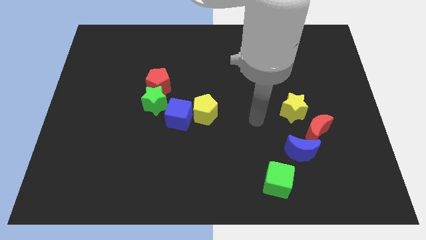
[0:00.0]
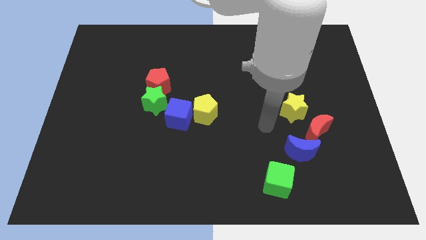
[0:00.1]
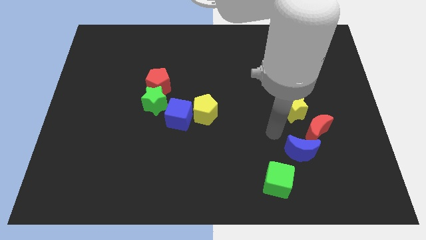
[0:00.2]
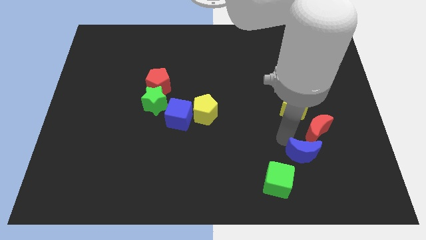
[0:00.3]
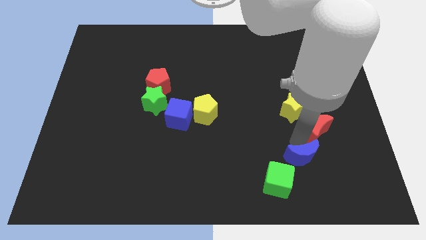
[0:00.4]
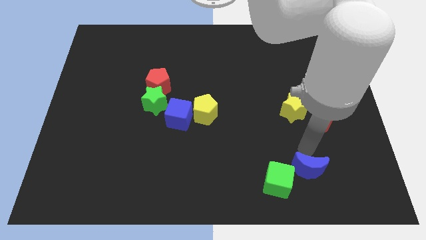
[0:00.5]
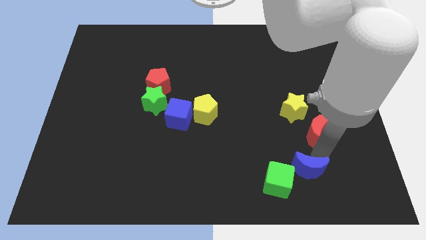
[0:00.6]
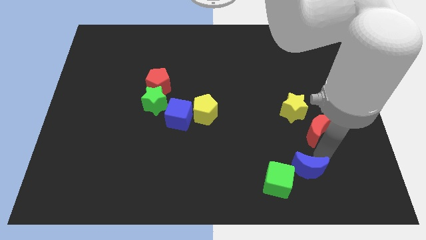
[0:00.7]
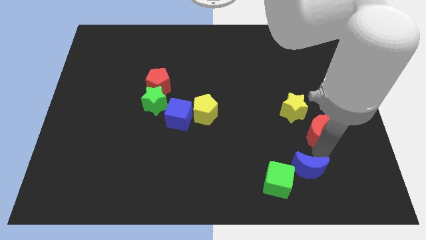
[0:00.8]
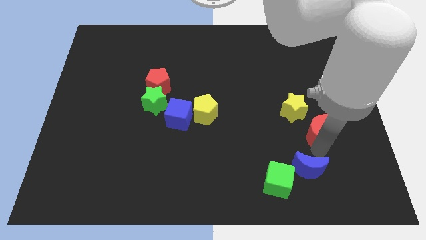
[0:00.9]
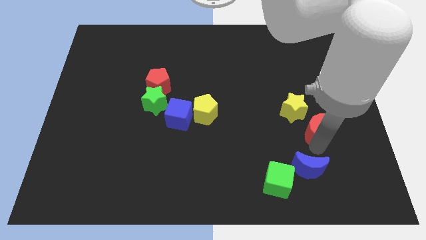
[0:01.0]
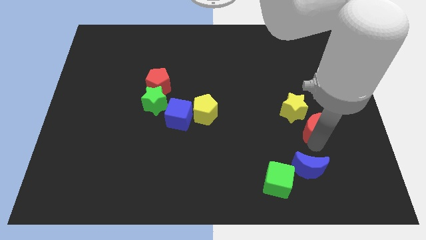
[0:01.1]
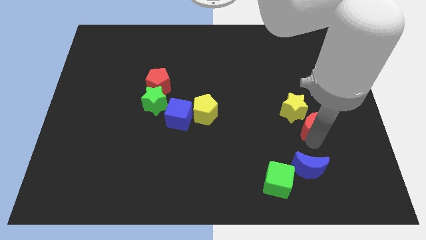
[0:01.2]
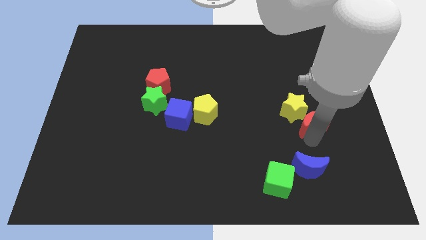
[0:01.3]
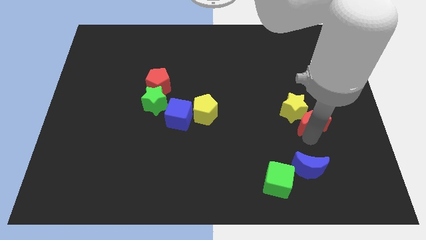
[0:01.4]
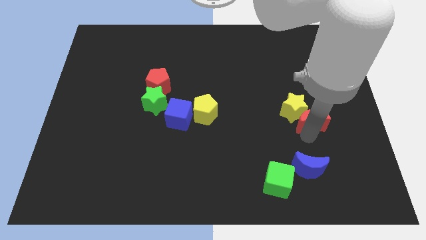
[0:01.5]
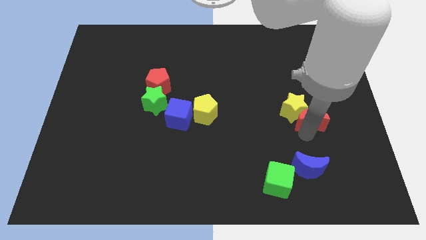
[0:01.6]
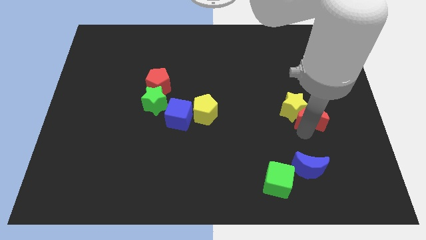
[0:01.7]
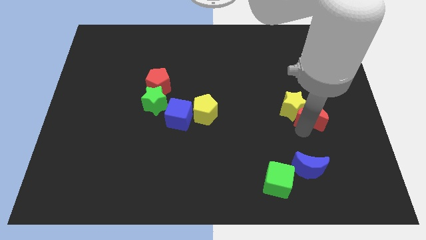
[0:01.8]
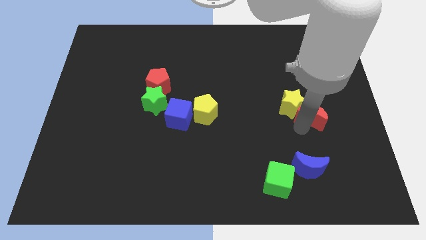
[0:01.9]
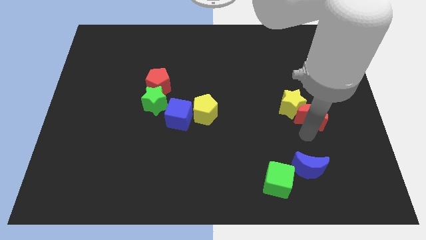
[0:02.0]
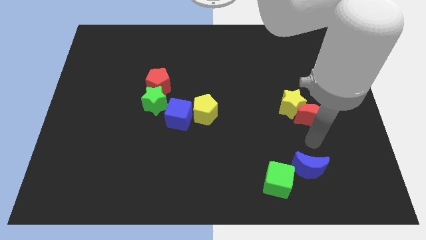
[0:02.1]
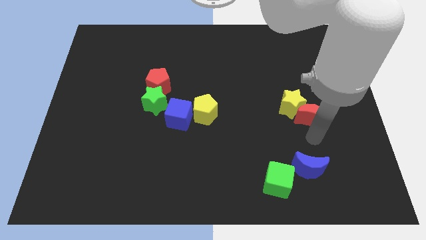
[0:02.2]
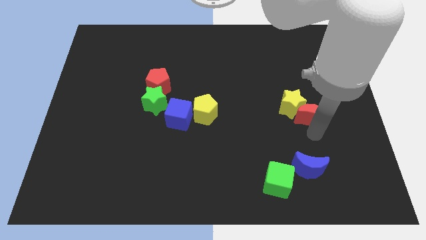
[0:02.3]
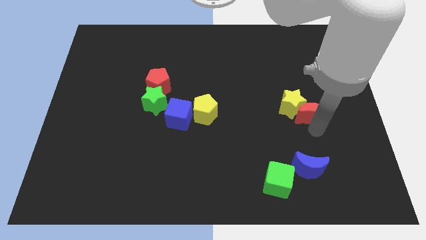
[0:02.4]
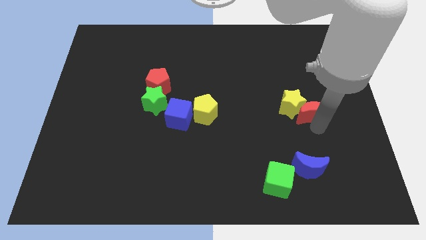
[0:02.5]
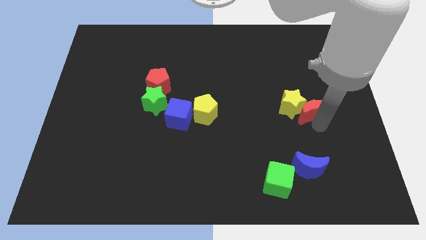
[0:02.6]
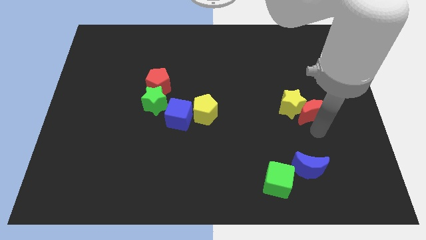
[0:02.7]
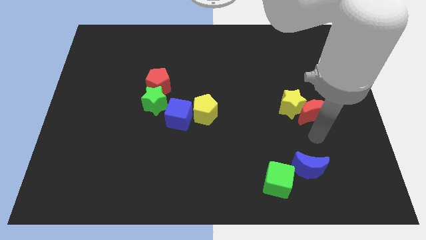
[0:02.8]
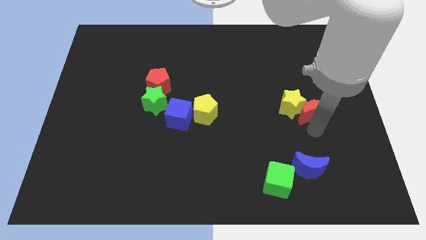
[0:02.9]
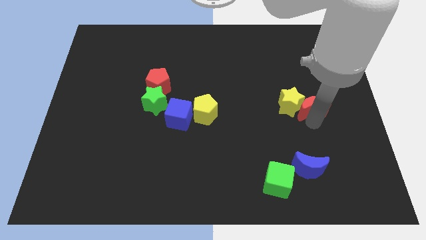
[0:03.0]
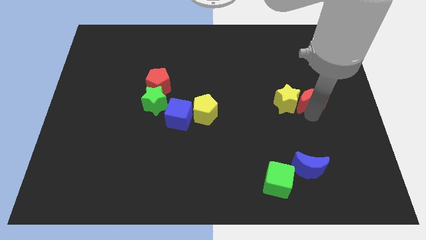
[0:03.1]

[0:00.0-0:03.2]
slightly slide the red moon upwards

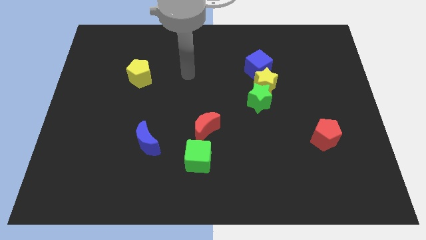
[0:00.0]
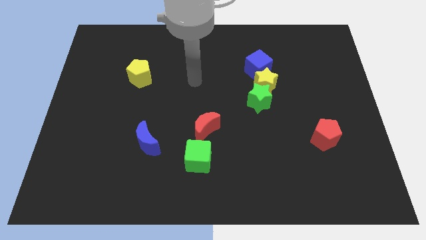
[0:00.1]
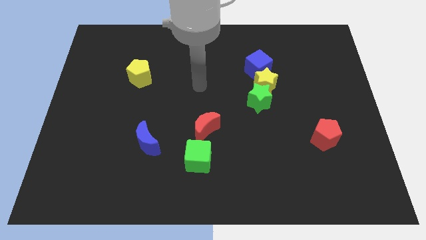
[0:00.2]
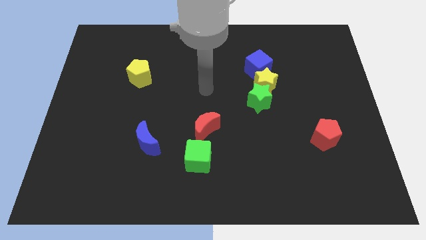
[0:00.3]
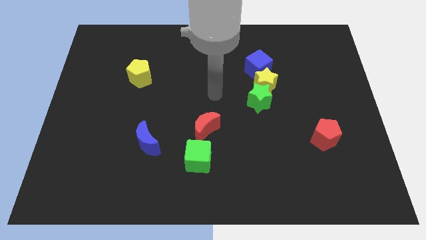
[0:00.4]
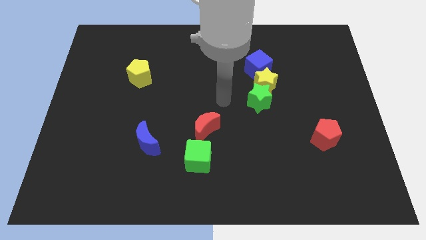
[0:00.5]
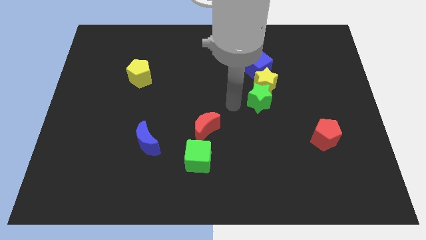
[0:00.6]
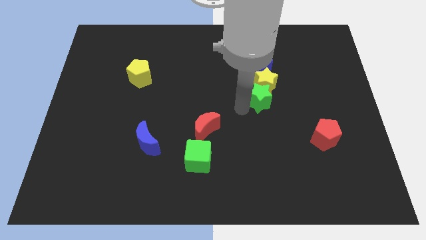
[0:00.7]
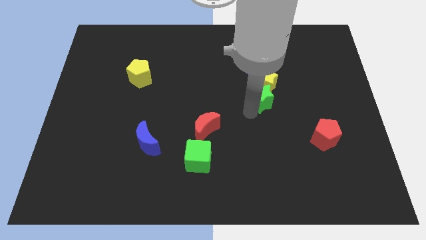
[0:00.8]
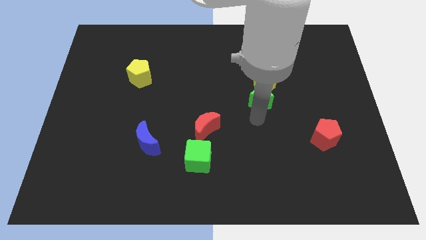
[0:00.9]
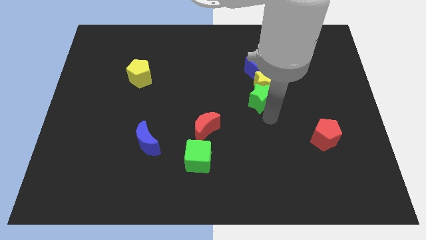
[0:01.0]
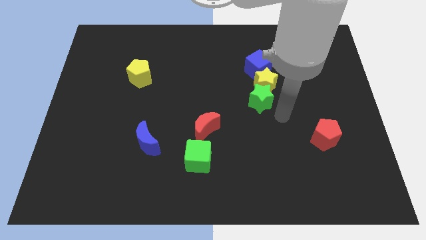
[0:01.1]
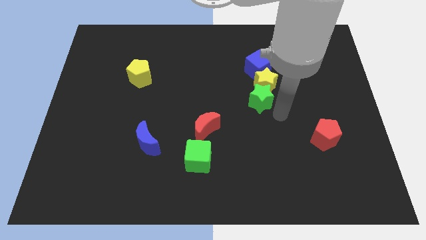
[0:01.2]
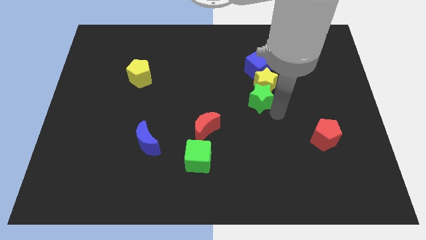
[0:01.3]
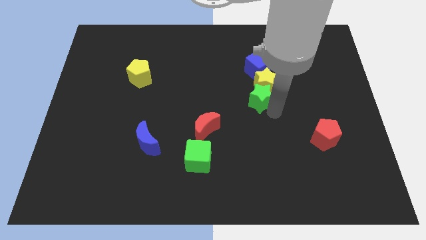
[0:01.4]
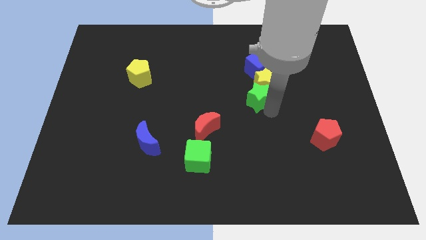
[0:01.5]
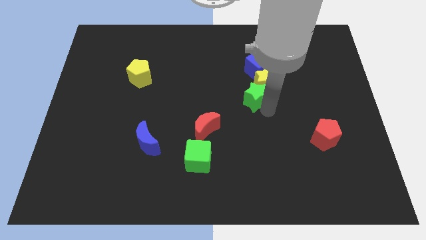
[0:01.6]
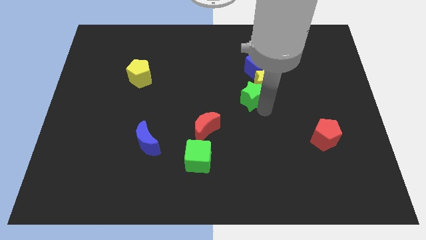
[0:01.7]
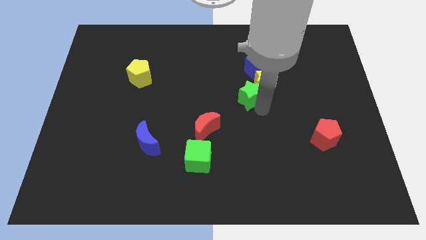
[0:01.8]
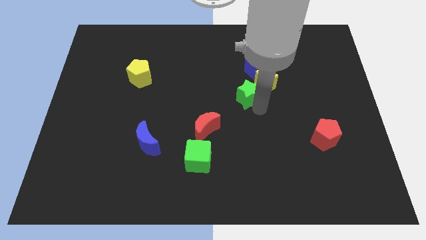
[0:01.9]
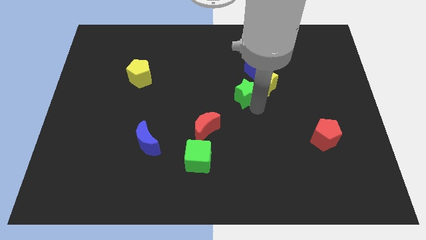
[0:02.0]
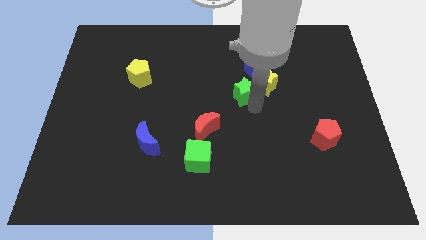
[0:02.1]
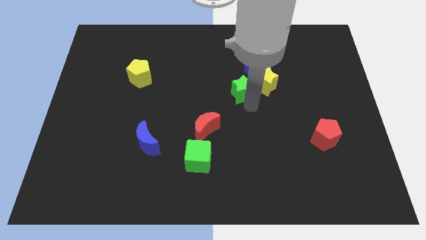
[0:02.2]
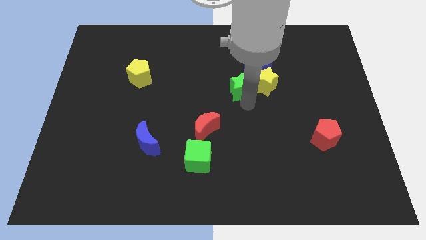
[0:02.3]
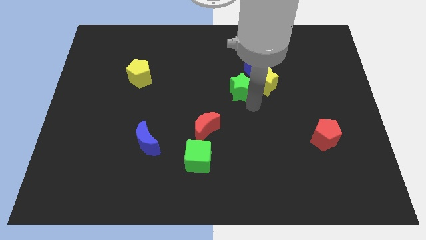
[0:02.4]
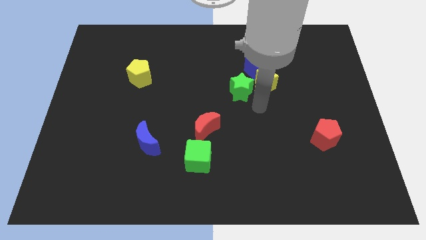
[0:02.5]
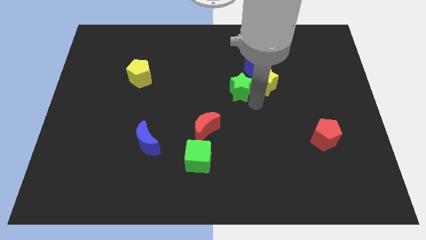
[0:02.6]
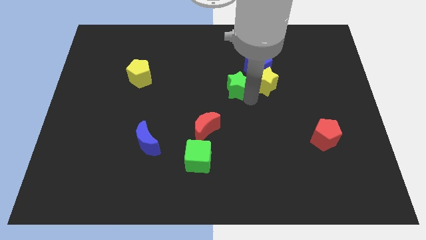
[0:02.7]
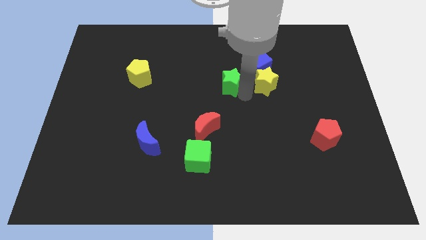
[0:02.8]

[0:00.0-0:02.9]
slightly push the green star up and then to the left

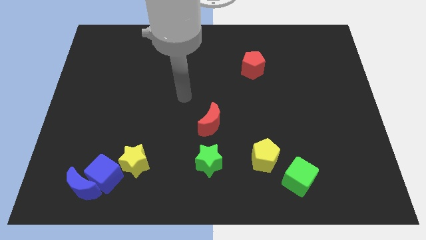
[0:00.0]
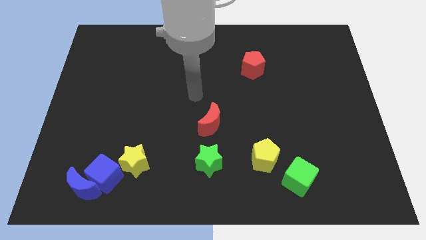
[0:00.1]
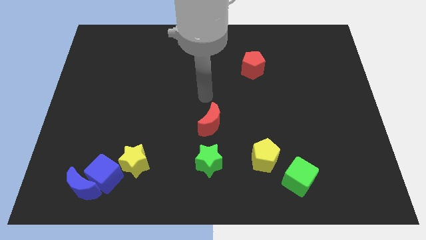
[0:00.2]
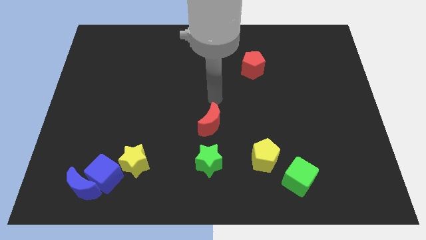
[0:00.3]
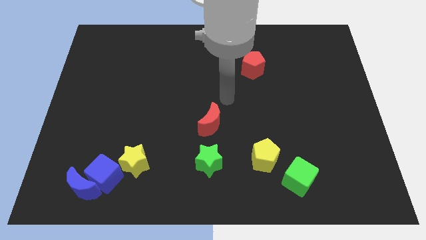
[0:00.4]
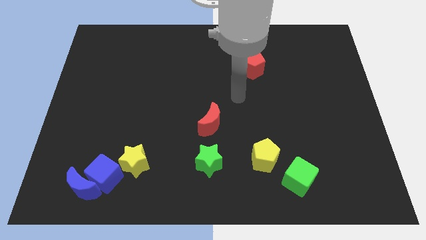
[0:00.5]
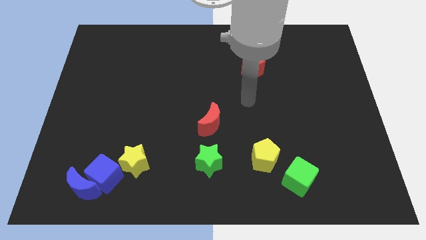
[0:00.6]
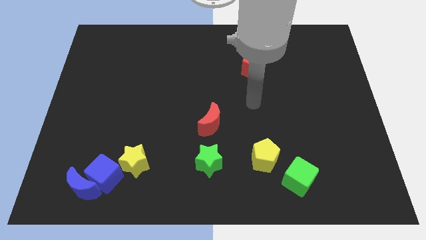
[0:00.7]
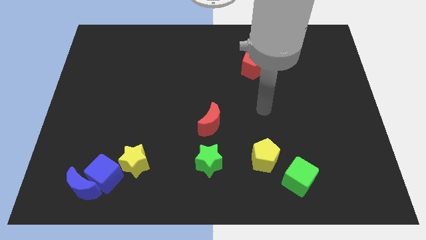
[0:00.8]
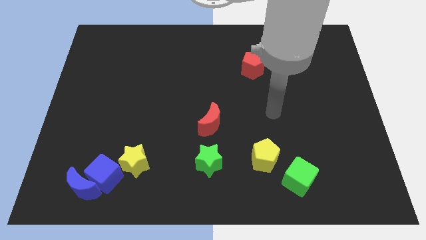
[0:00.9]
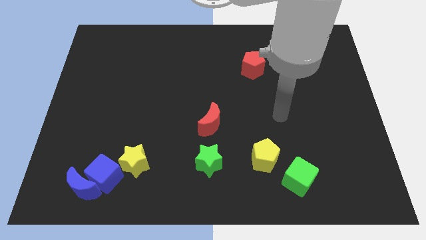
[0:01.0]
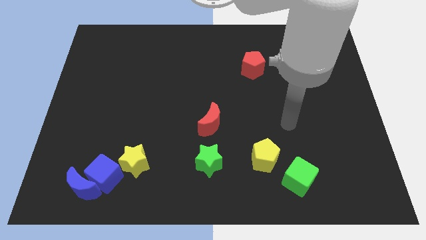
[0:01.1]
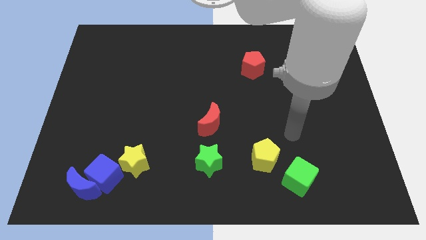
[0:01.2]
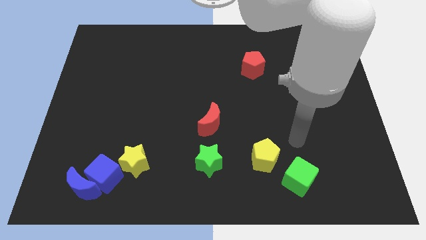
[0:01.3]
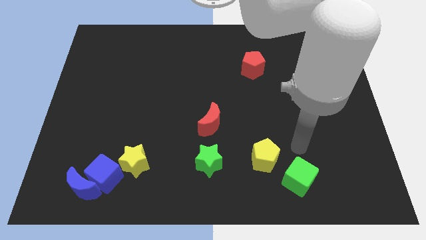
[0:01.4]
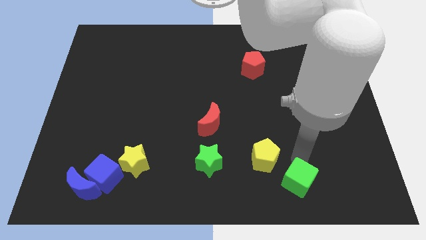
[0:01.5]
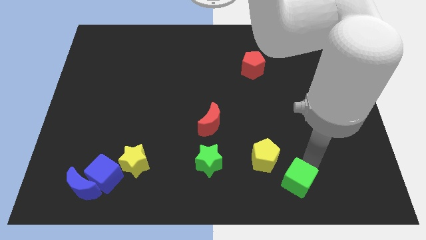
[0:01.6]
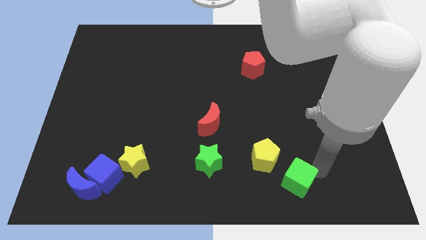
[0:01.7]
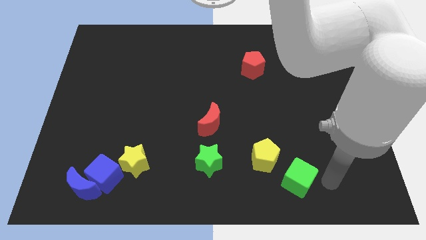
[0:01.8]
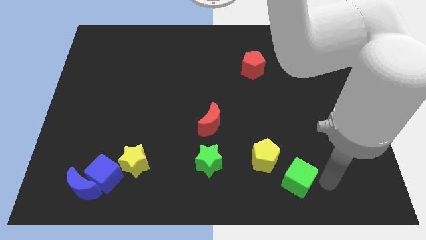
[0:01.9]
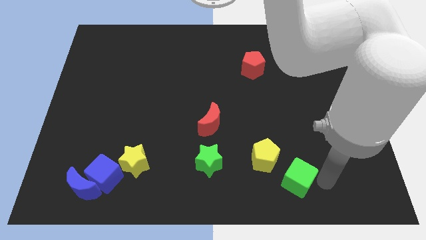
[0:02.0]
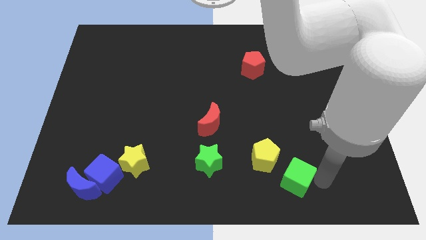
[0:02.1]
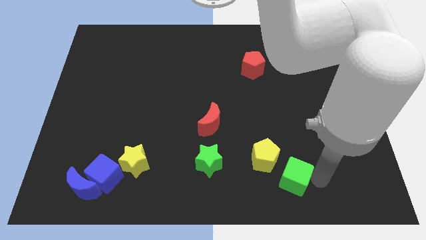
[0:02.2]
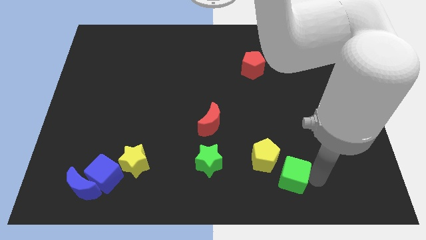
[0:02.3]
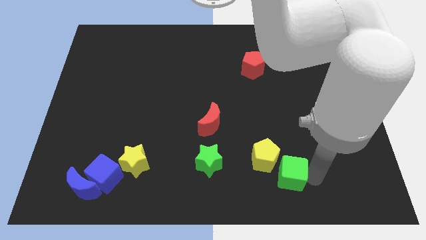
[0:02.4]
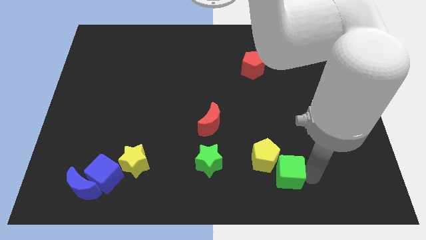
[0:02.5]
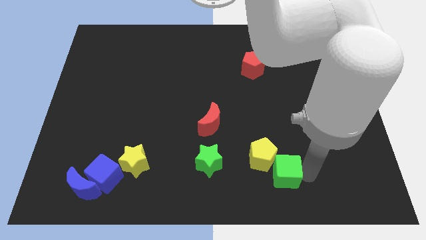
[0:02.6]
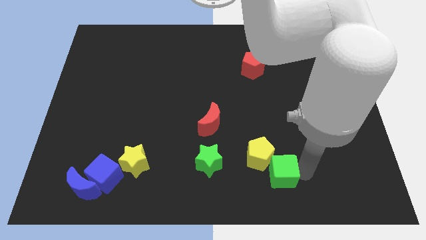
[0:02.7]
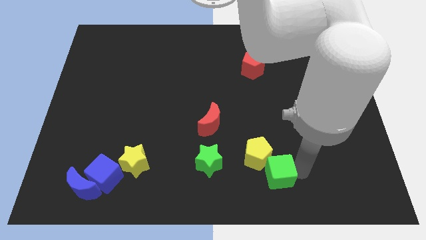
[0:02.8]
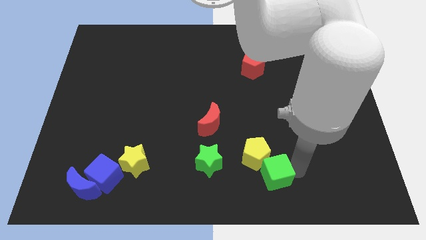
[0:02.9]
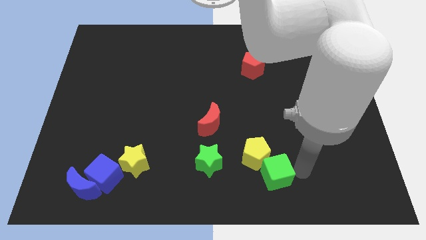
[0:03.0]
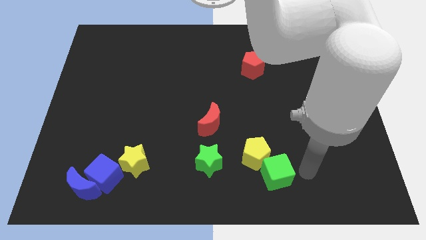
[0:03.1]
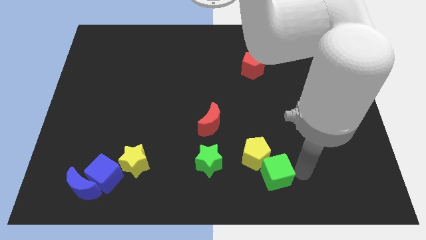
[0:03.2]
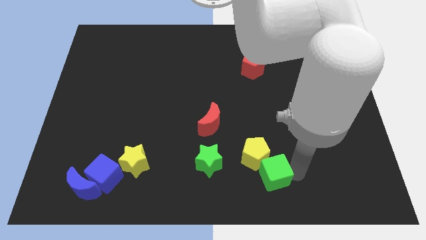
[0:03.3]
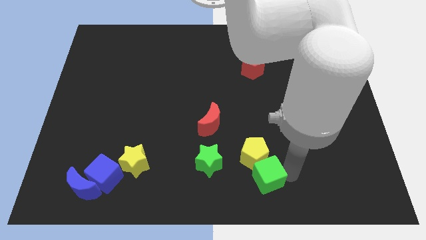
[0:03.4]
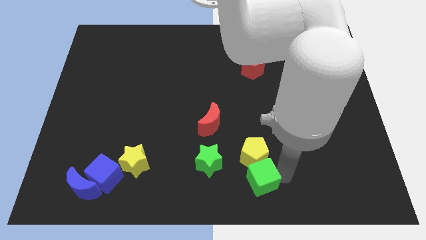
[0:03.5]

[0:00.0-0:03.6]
slightly slide the green cube to the left
